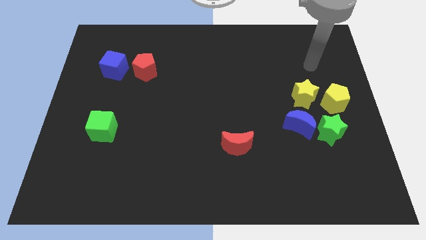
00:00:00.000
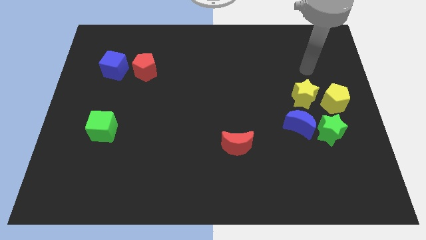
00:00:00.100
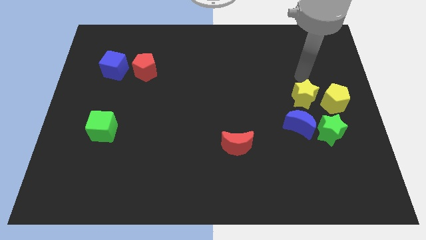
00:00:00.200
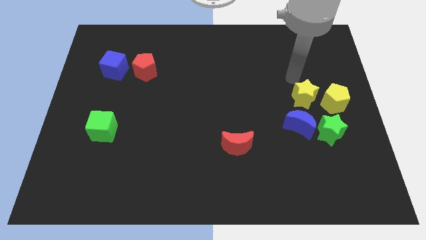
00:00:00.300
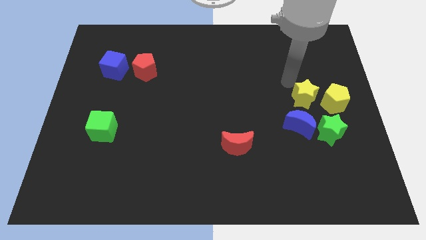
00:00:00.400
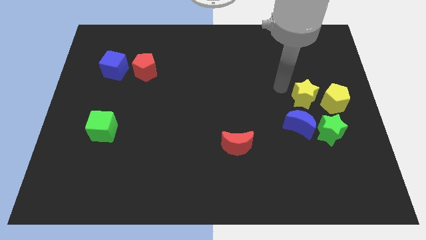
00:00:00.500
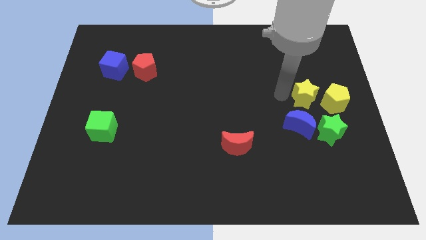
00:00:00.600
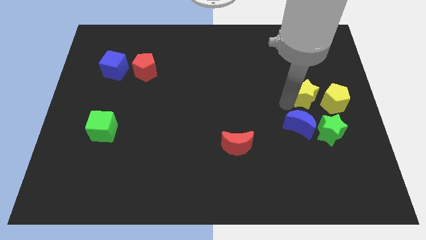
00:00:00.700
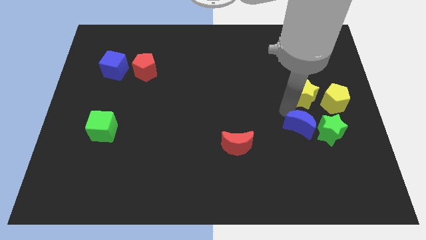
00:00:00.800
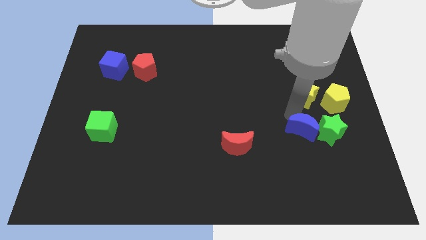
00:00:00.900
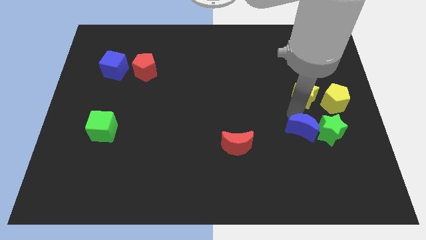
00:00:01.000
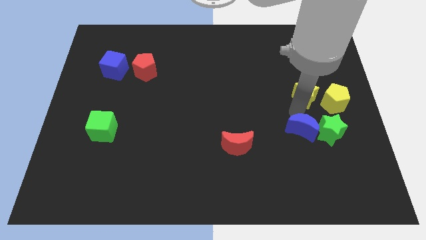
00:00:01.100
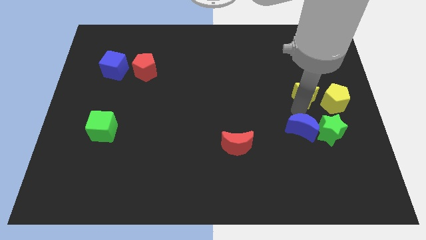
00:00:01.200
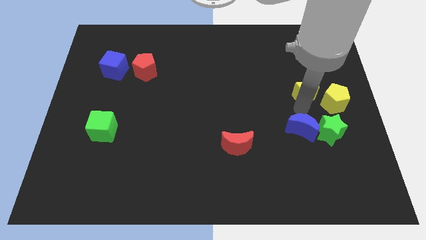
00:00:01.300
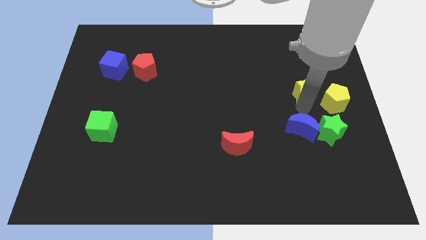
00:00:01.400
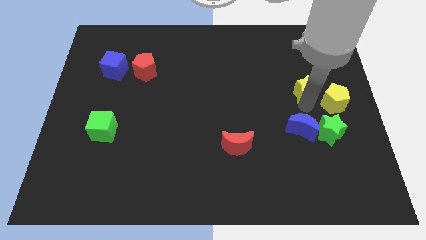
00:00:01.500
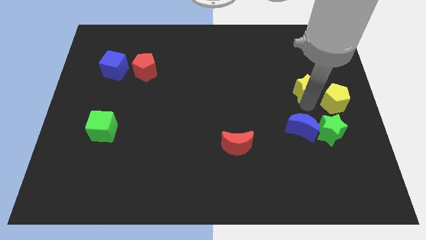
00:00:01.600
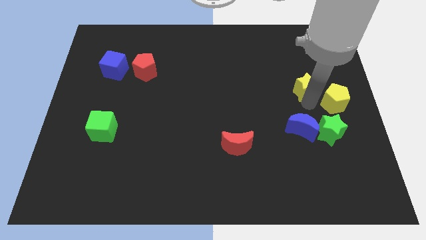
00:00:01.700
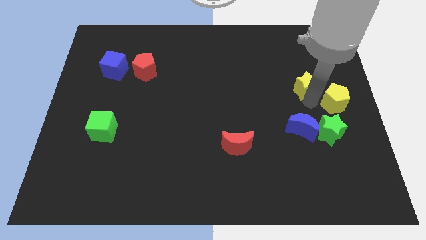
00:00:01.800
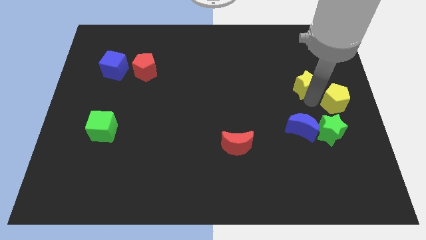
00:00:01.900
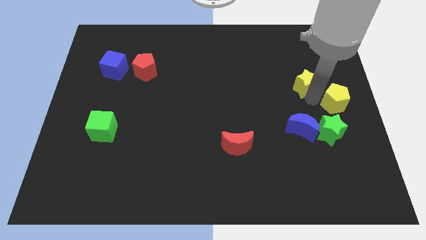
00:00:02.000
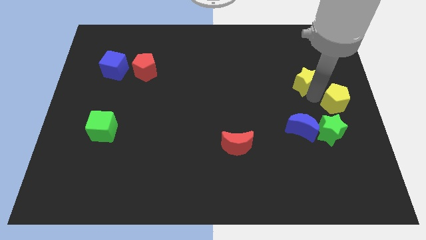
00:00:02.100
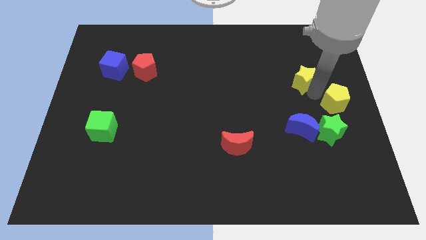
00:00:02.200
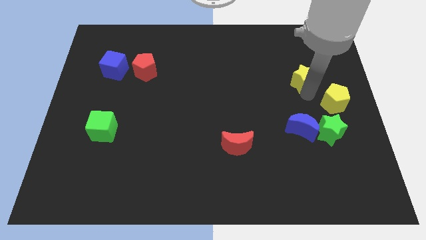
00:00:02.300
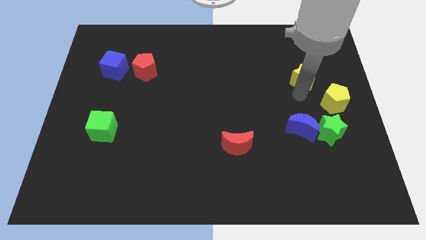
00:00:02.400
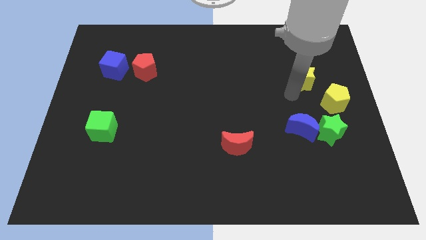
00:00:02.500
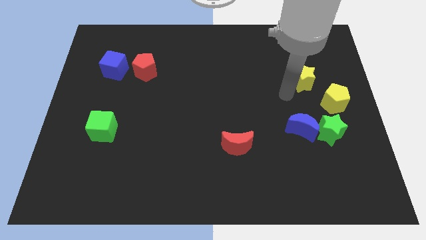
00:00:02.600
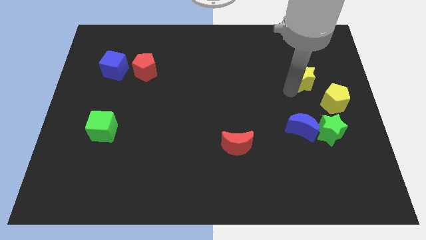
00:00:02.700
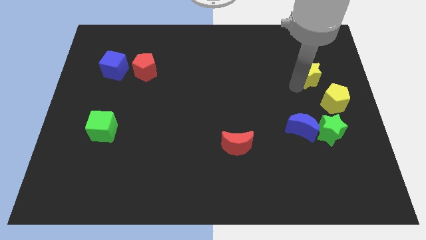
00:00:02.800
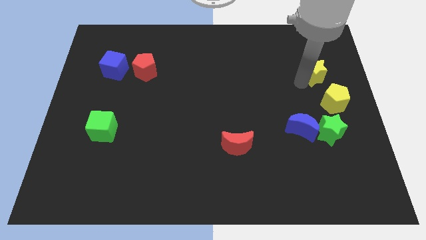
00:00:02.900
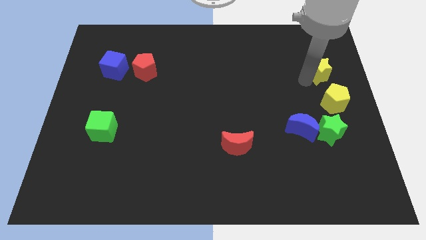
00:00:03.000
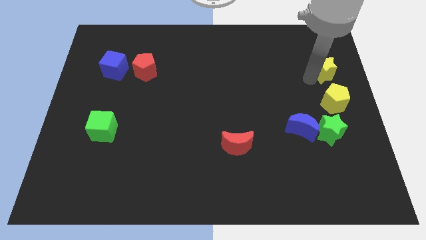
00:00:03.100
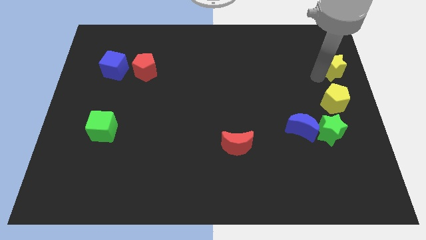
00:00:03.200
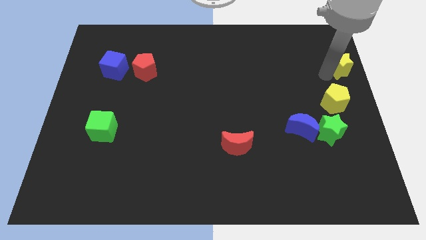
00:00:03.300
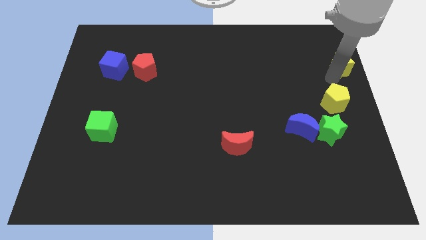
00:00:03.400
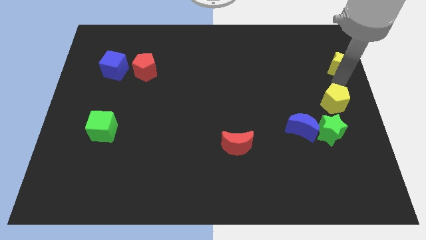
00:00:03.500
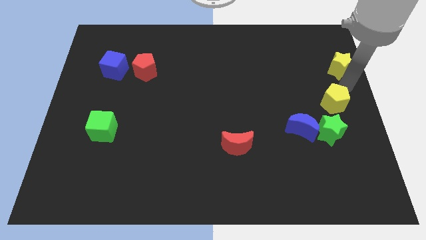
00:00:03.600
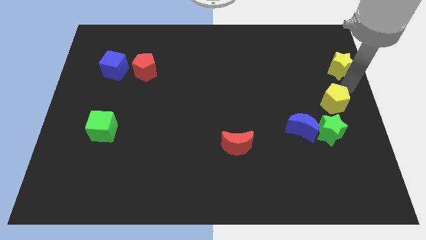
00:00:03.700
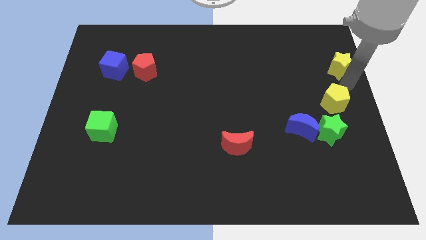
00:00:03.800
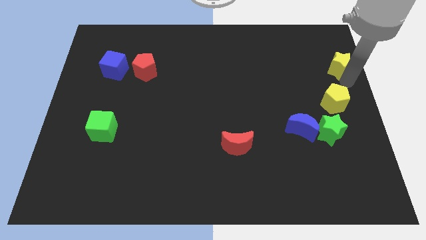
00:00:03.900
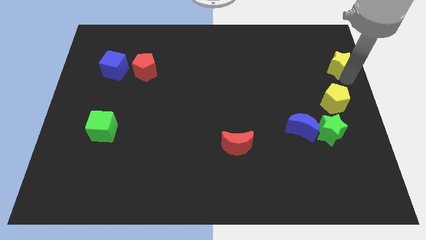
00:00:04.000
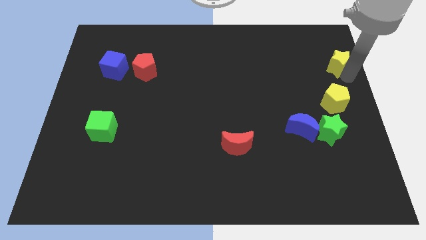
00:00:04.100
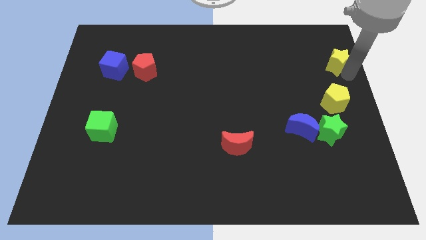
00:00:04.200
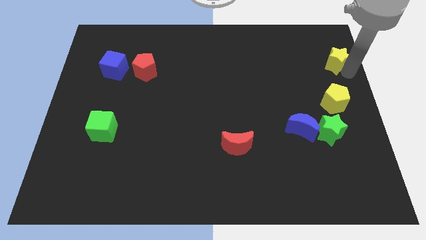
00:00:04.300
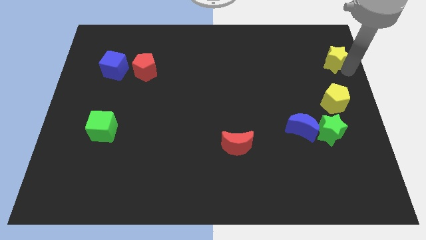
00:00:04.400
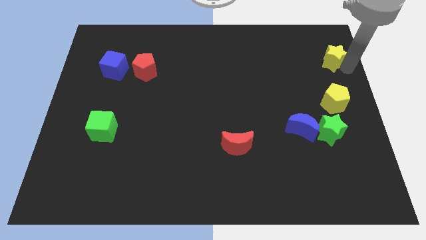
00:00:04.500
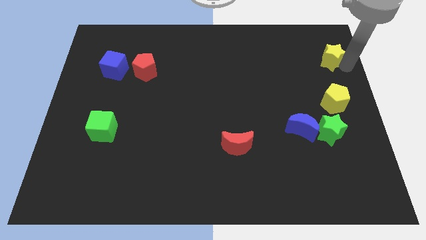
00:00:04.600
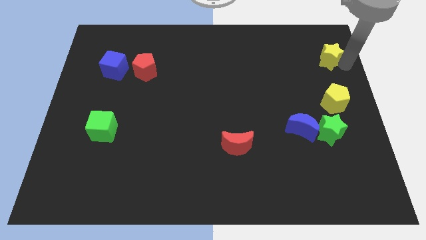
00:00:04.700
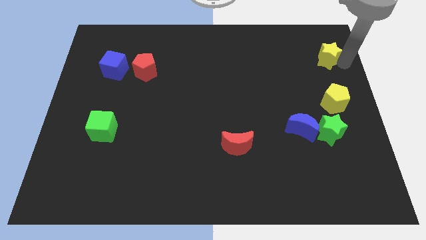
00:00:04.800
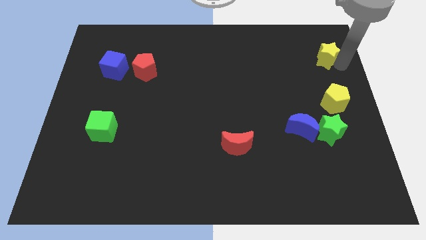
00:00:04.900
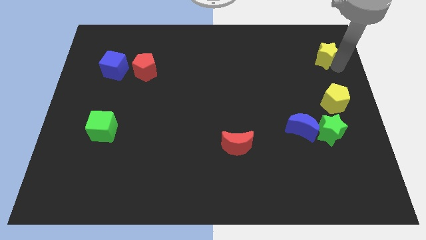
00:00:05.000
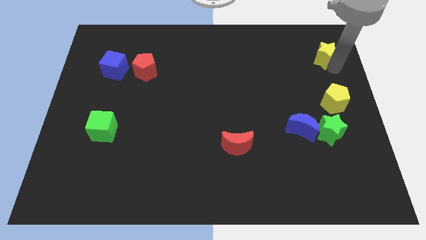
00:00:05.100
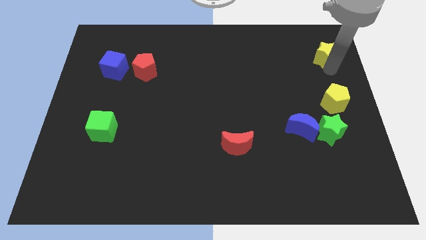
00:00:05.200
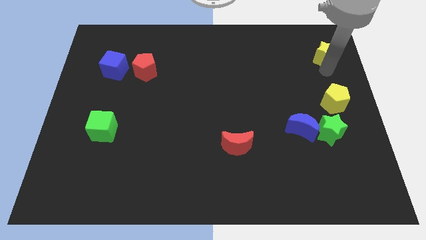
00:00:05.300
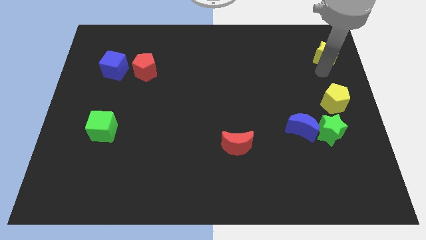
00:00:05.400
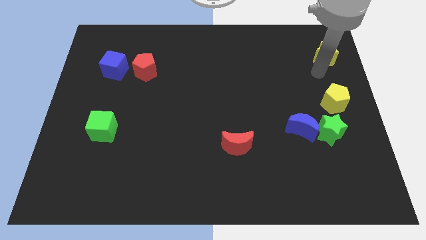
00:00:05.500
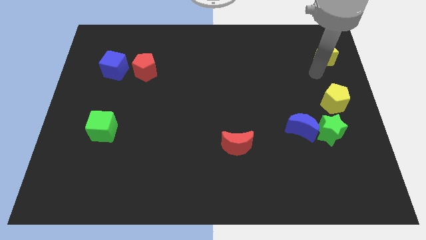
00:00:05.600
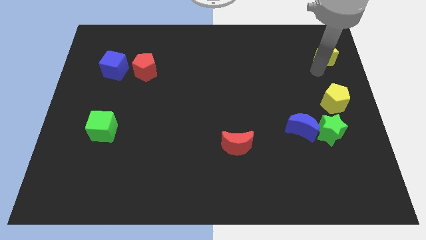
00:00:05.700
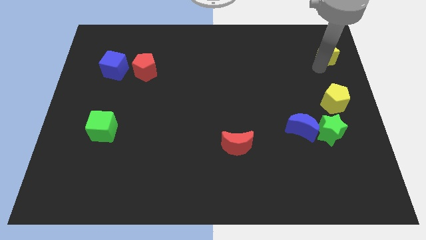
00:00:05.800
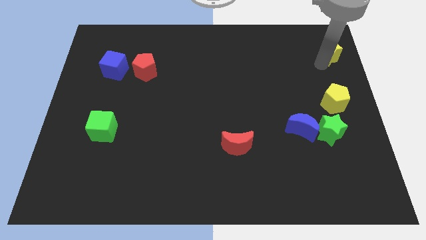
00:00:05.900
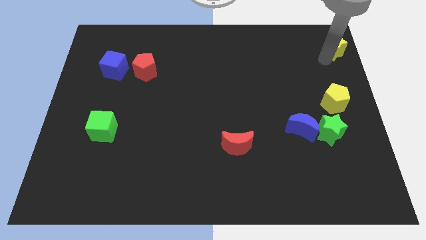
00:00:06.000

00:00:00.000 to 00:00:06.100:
put the yellow star to the top right corner

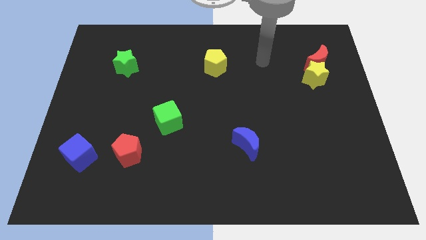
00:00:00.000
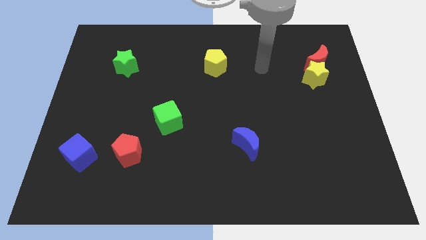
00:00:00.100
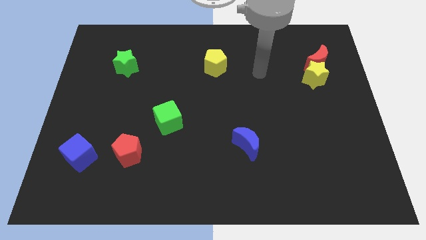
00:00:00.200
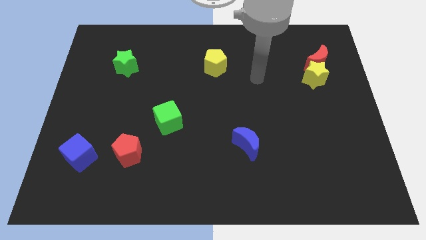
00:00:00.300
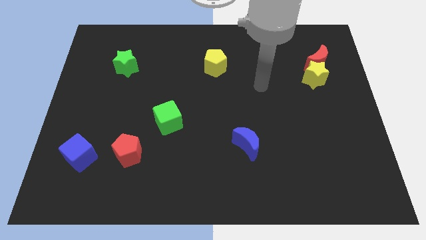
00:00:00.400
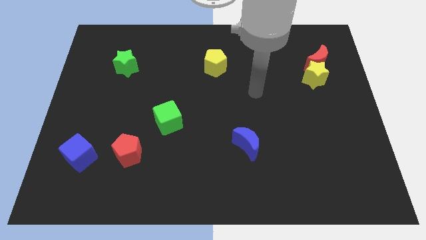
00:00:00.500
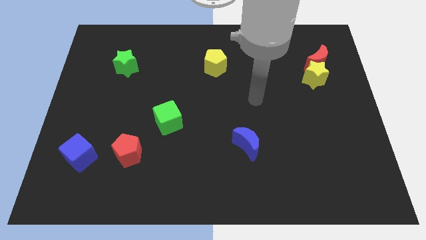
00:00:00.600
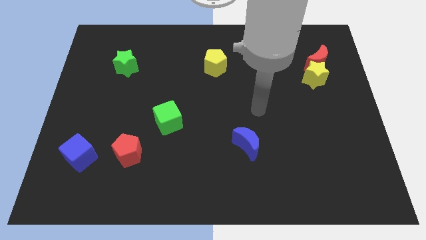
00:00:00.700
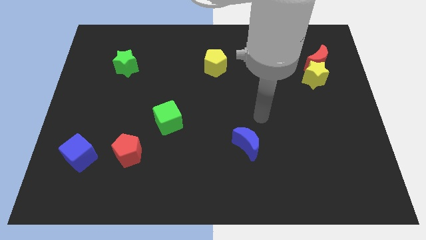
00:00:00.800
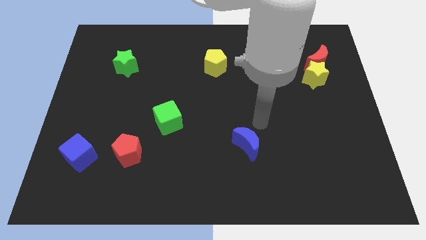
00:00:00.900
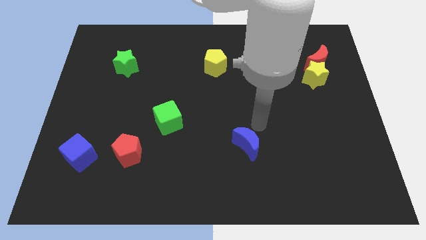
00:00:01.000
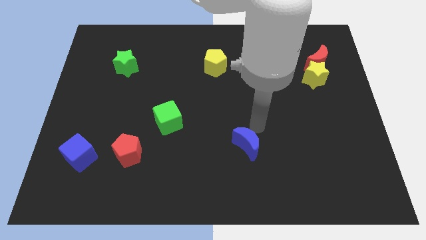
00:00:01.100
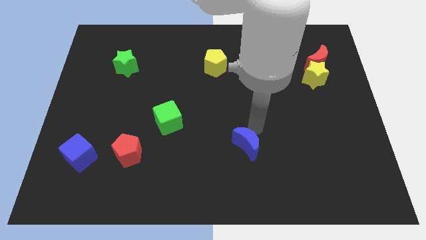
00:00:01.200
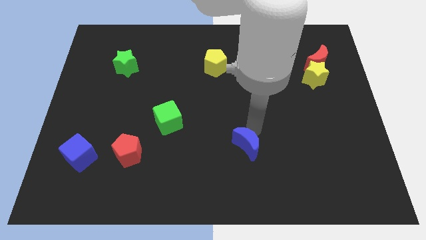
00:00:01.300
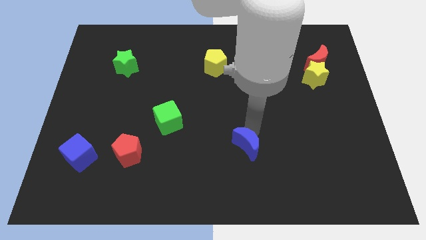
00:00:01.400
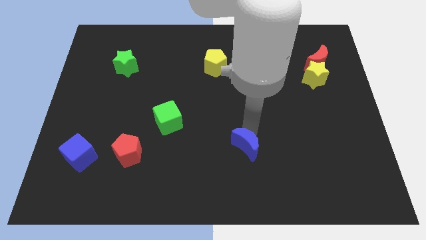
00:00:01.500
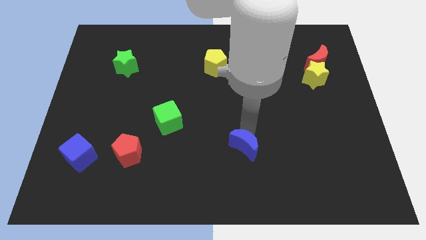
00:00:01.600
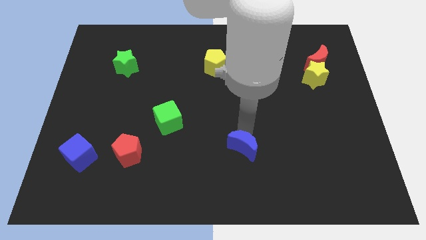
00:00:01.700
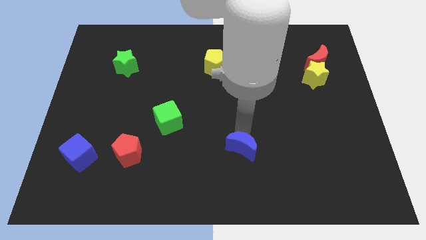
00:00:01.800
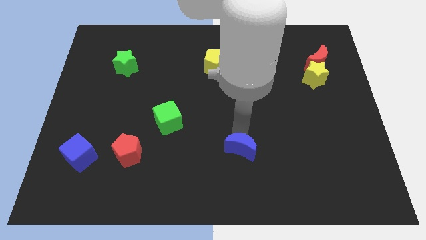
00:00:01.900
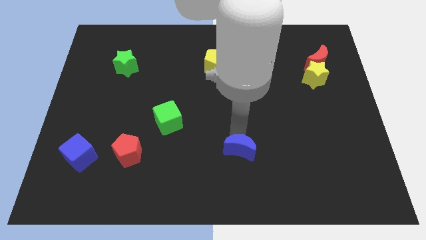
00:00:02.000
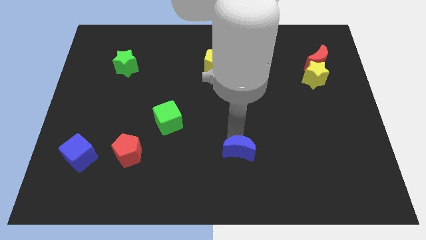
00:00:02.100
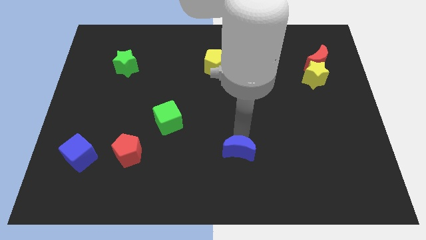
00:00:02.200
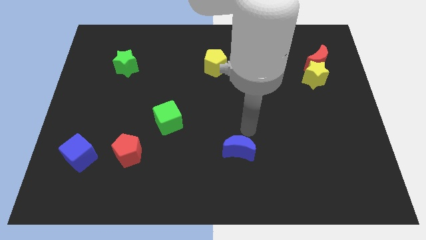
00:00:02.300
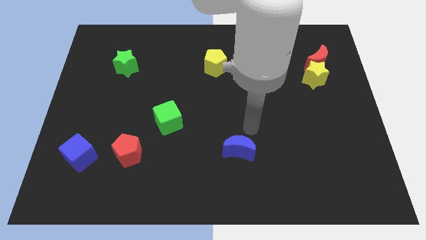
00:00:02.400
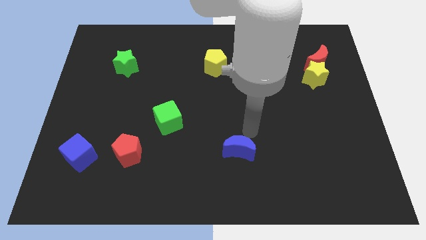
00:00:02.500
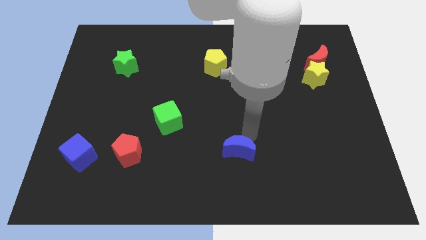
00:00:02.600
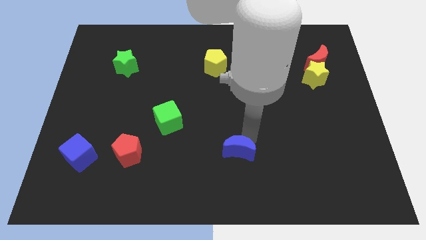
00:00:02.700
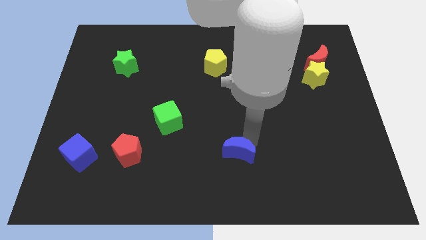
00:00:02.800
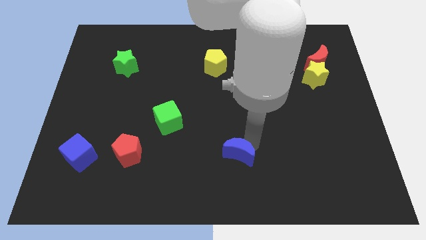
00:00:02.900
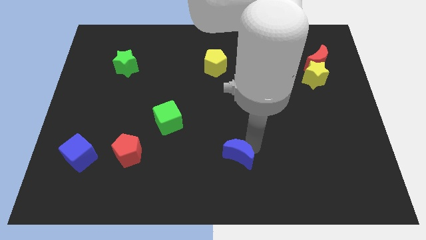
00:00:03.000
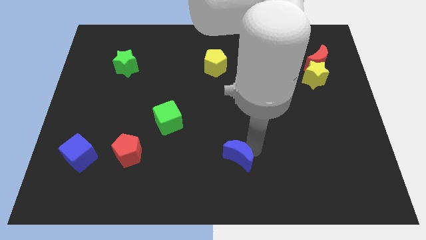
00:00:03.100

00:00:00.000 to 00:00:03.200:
slide the blue moon to the bottom side
